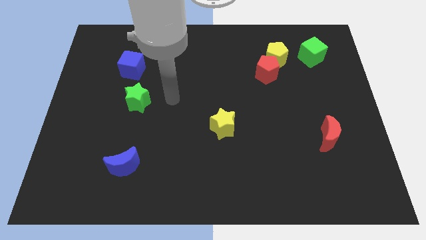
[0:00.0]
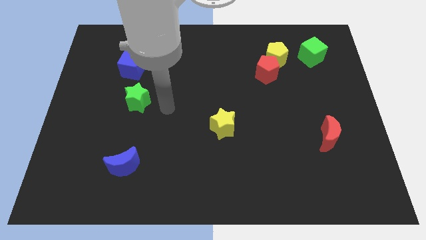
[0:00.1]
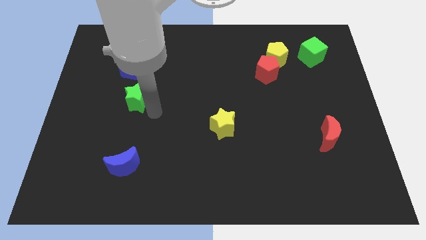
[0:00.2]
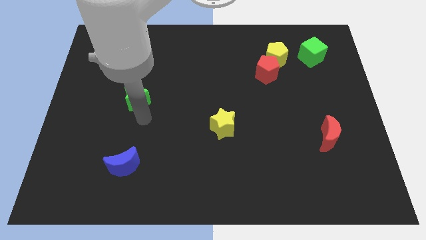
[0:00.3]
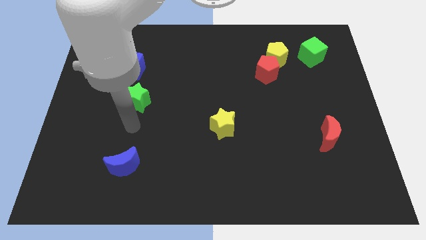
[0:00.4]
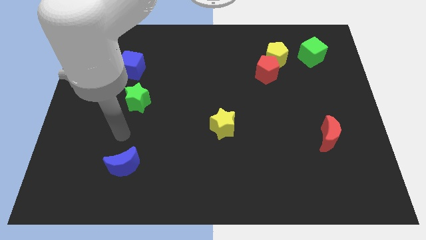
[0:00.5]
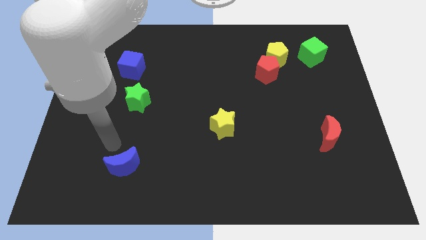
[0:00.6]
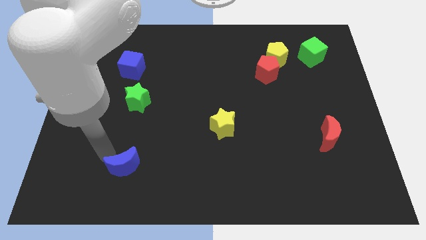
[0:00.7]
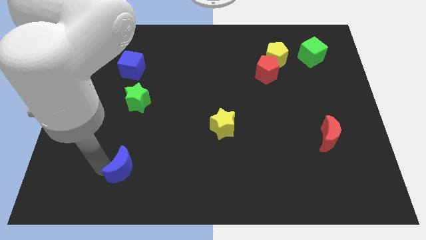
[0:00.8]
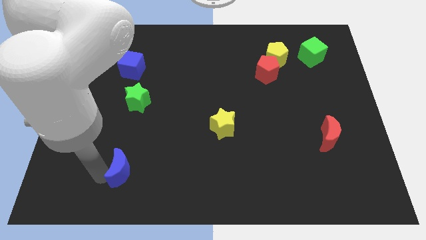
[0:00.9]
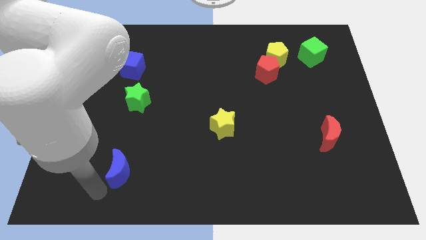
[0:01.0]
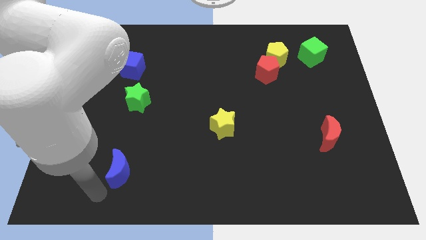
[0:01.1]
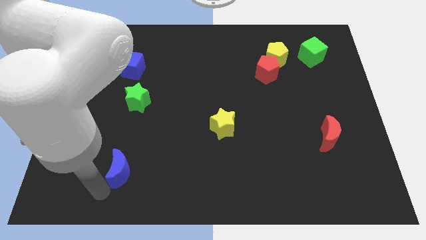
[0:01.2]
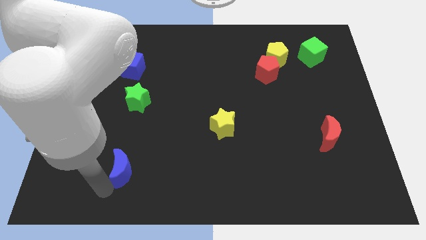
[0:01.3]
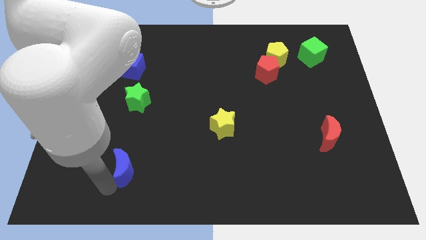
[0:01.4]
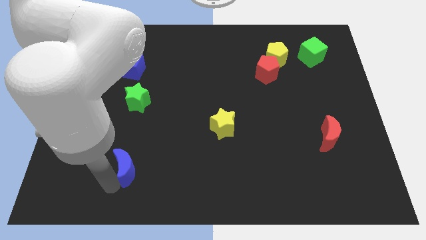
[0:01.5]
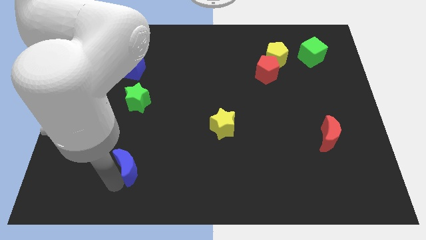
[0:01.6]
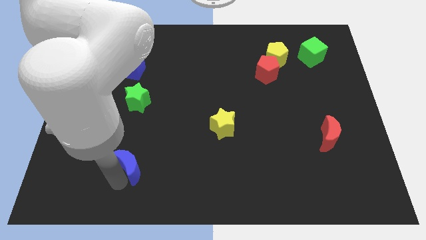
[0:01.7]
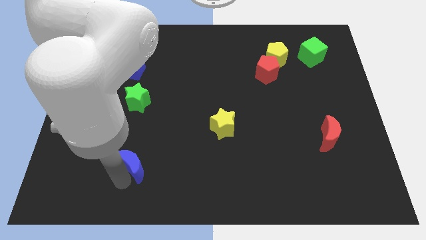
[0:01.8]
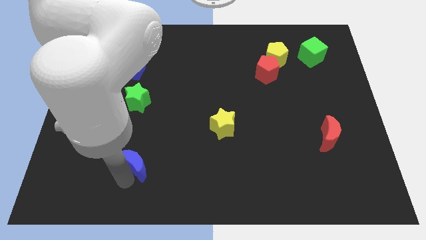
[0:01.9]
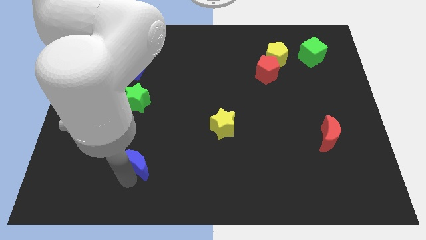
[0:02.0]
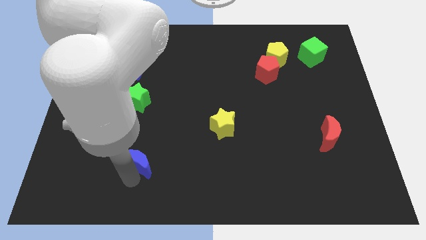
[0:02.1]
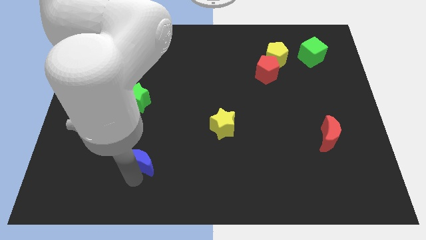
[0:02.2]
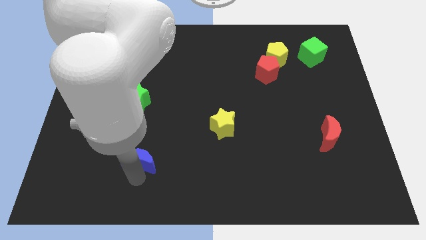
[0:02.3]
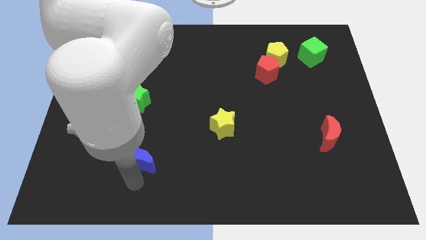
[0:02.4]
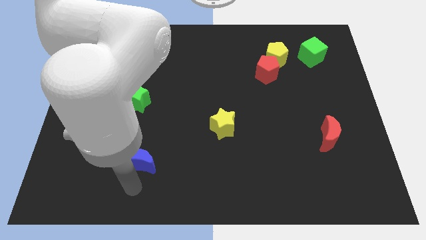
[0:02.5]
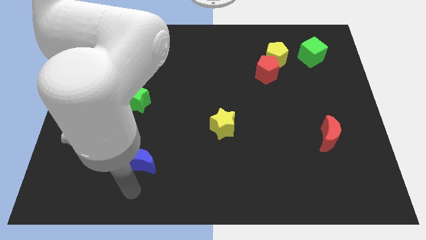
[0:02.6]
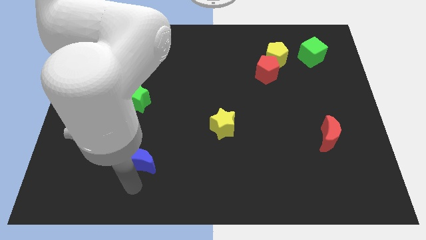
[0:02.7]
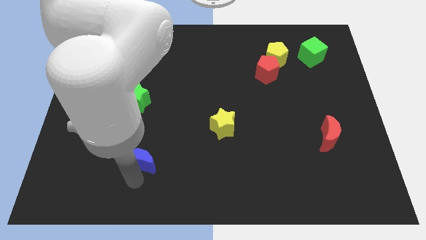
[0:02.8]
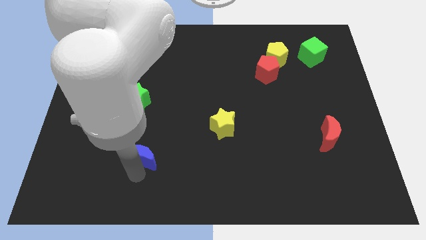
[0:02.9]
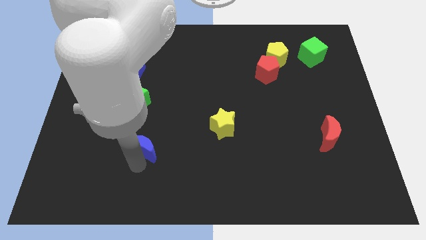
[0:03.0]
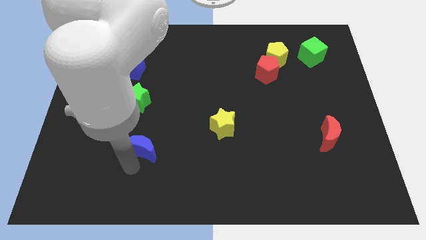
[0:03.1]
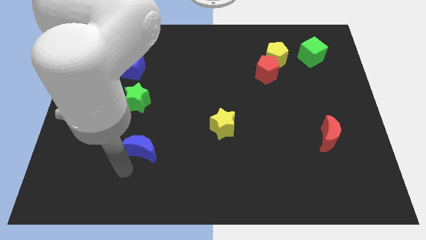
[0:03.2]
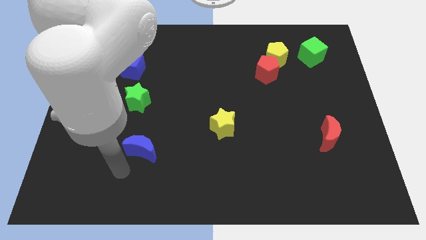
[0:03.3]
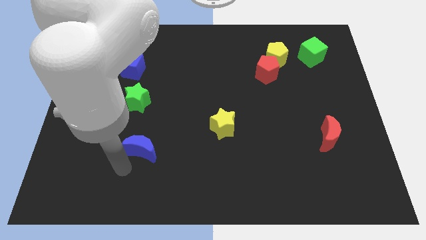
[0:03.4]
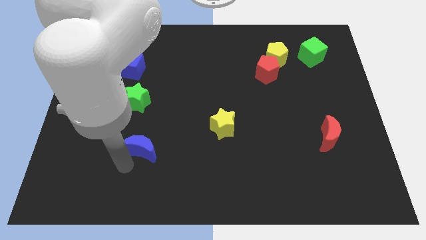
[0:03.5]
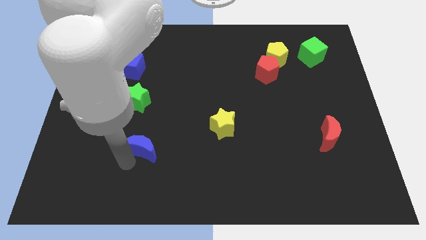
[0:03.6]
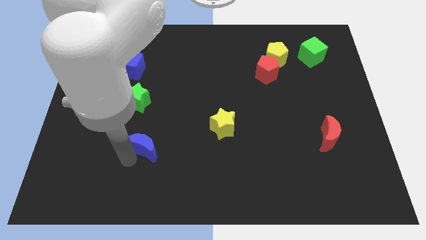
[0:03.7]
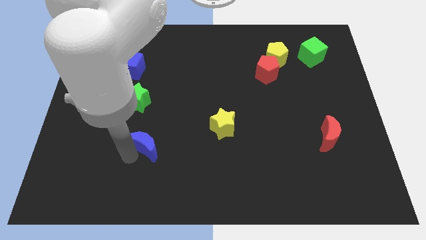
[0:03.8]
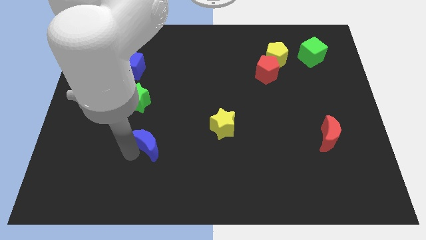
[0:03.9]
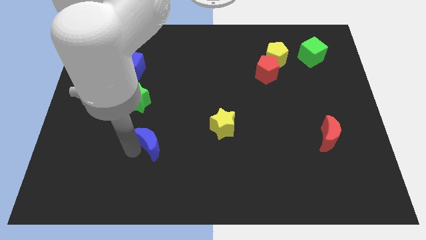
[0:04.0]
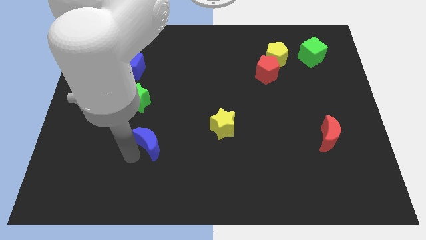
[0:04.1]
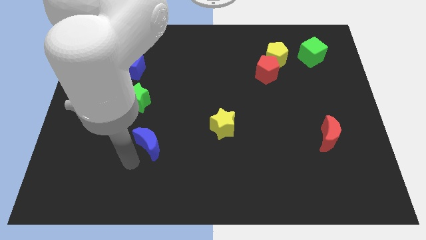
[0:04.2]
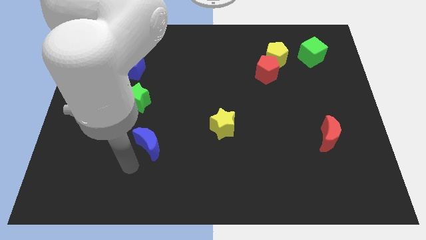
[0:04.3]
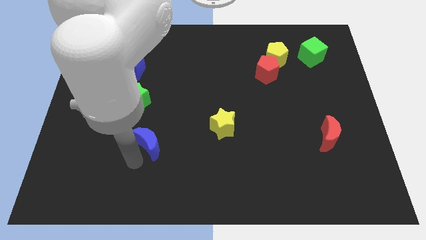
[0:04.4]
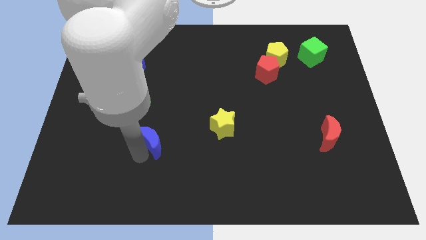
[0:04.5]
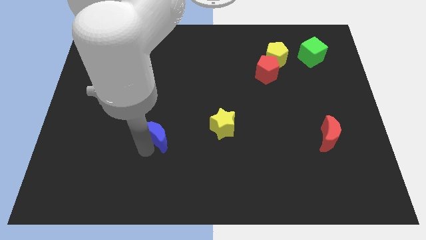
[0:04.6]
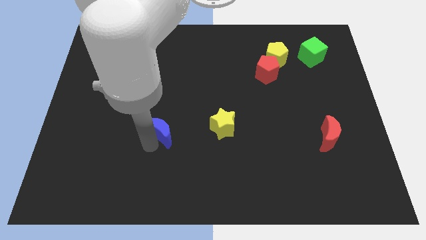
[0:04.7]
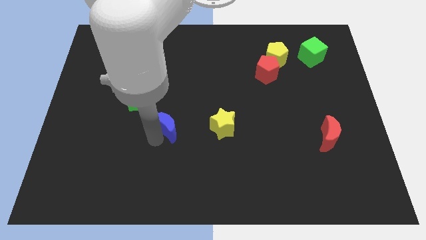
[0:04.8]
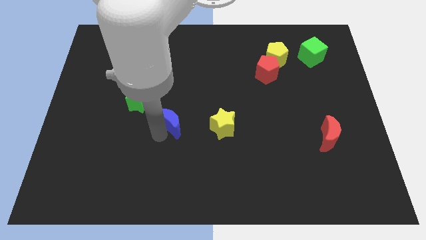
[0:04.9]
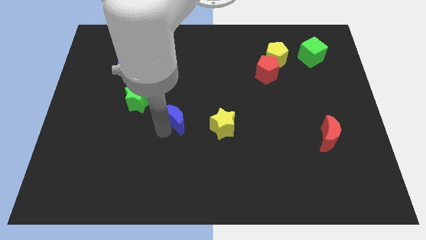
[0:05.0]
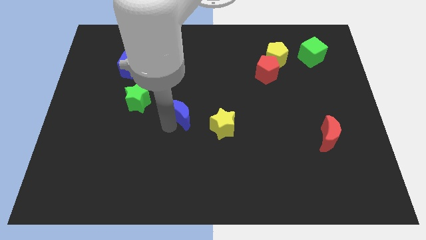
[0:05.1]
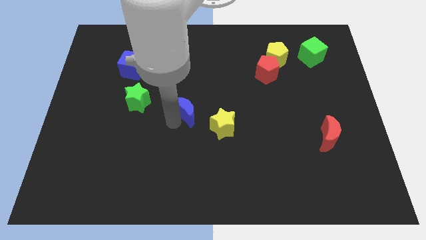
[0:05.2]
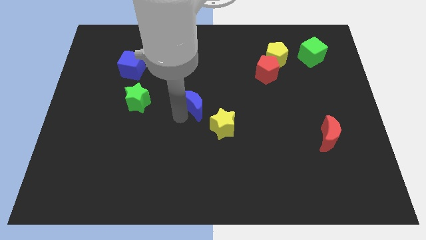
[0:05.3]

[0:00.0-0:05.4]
push the blue moon diagonally upwards and to the right

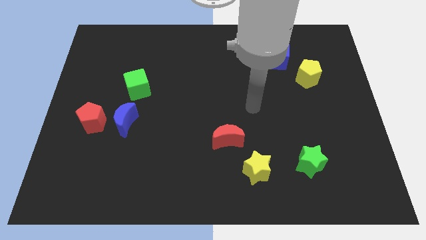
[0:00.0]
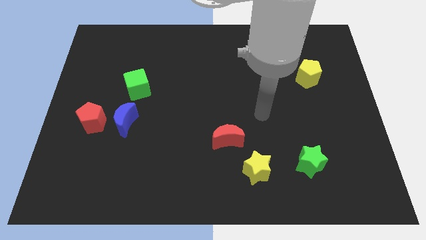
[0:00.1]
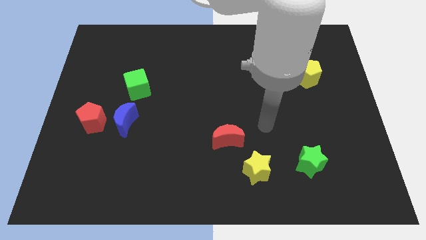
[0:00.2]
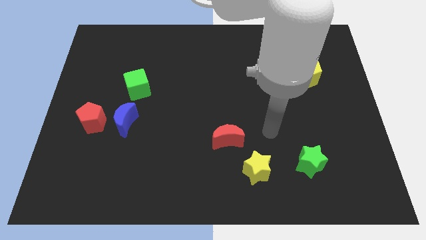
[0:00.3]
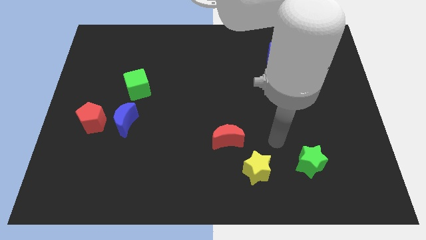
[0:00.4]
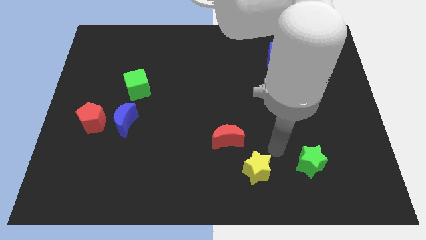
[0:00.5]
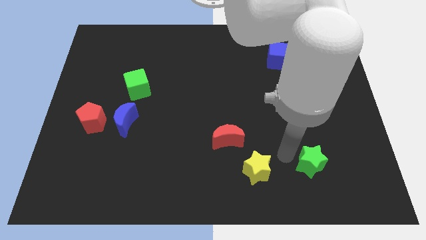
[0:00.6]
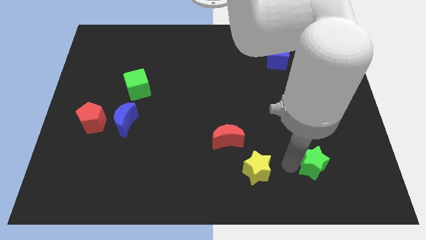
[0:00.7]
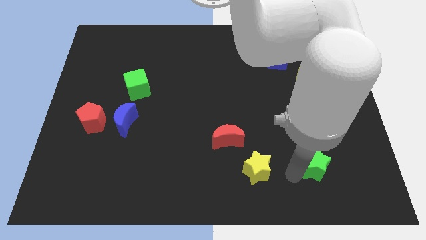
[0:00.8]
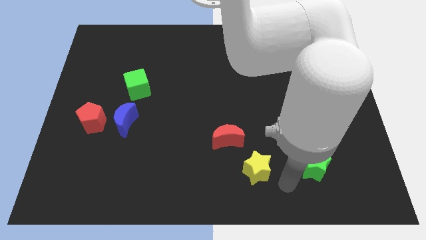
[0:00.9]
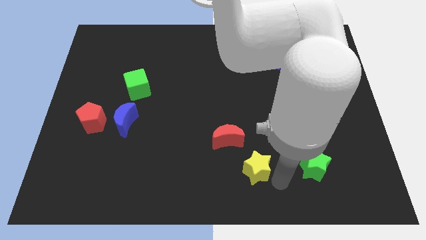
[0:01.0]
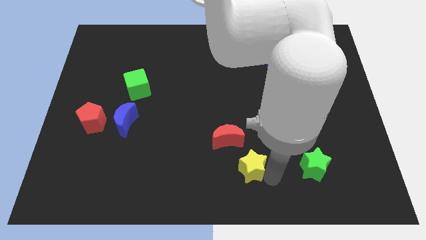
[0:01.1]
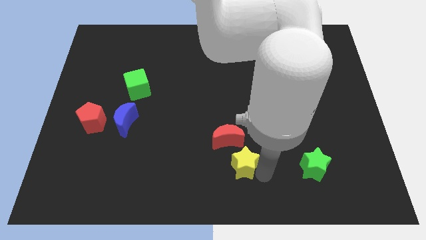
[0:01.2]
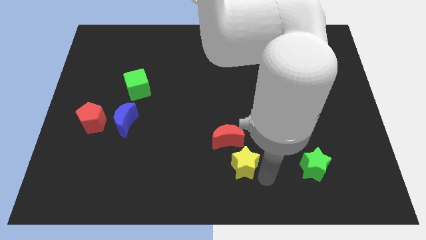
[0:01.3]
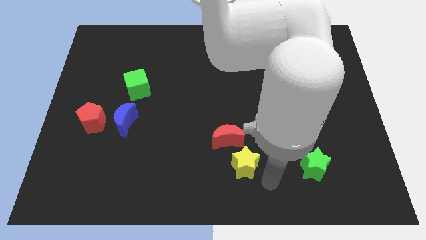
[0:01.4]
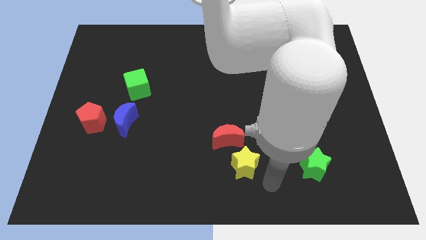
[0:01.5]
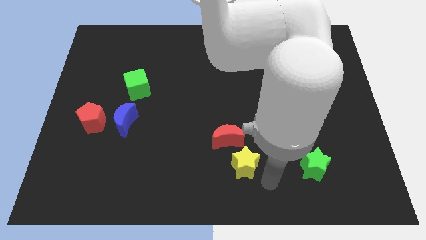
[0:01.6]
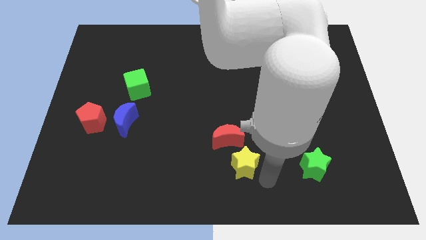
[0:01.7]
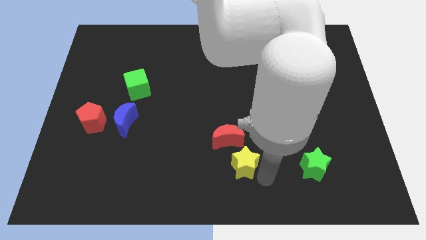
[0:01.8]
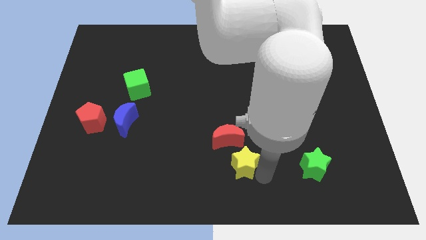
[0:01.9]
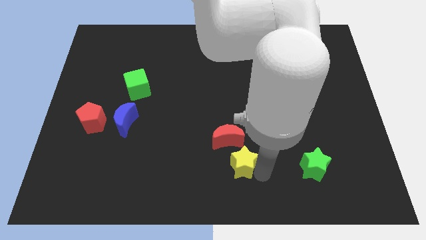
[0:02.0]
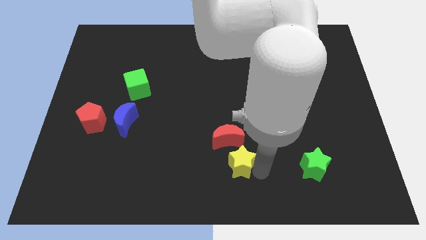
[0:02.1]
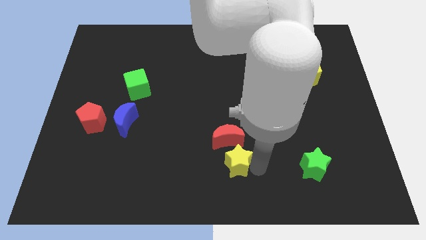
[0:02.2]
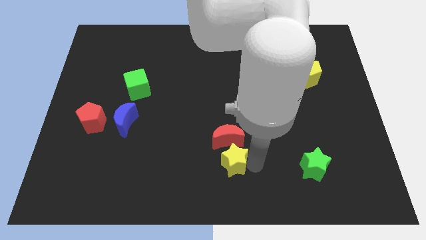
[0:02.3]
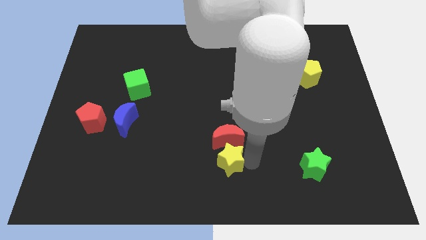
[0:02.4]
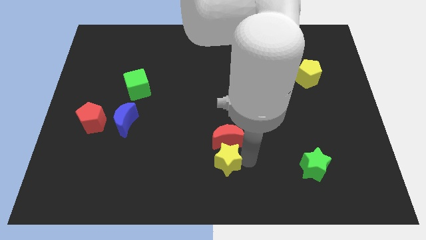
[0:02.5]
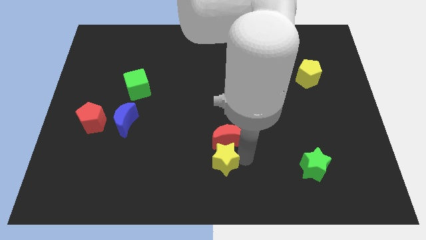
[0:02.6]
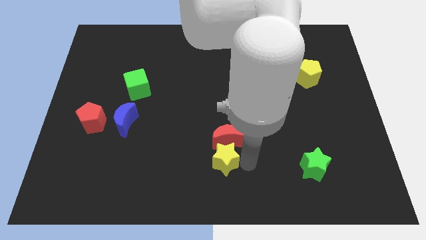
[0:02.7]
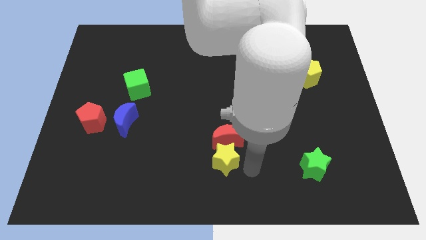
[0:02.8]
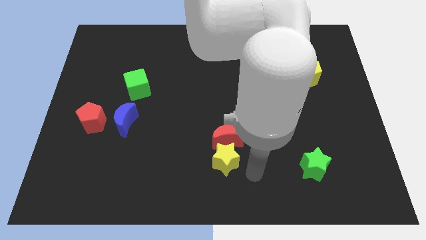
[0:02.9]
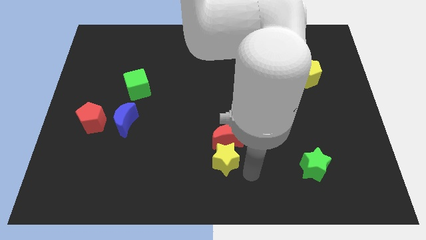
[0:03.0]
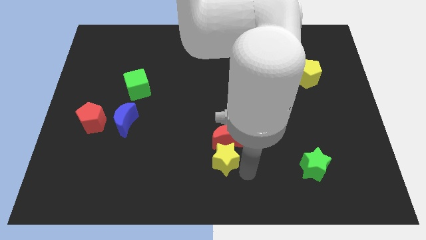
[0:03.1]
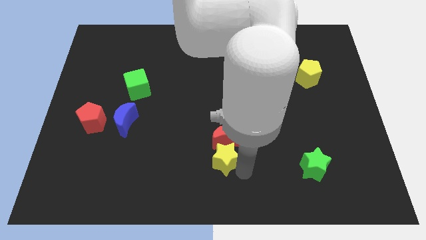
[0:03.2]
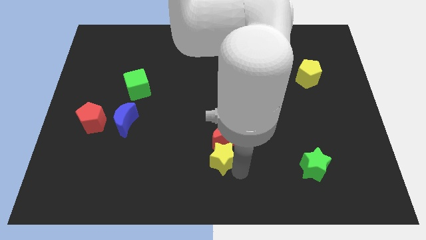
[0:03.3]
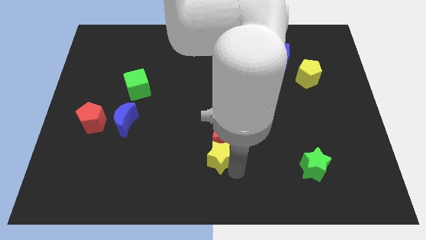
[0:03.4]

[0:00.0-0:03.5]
move the yellow star up and then left a little

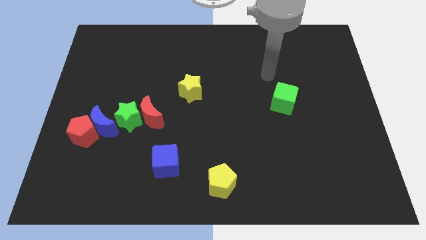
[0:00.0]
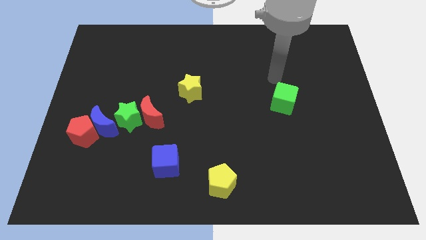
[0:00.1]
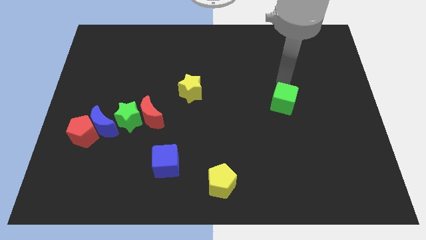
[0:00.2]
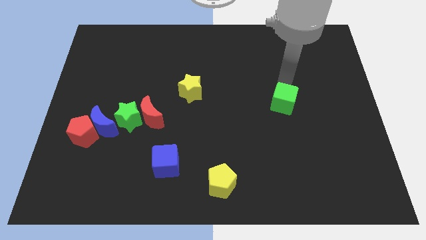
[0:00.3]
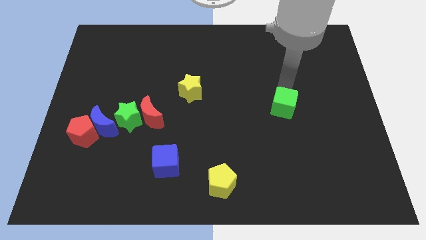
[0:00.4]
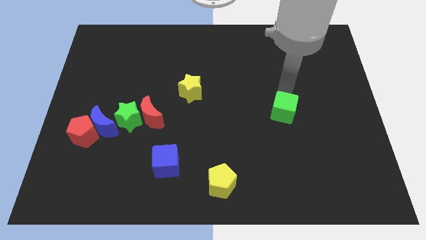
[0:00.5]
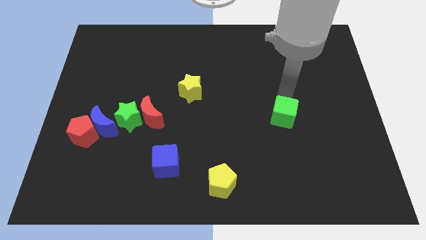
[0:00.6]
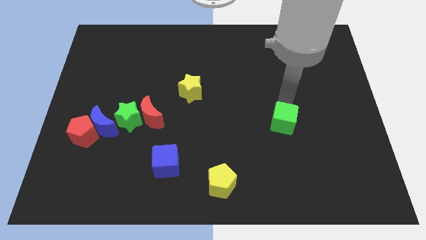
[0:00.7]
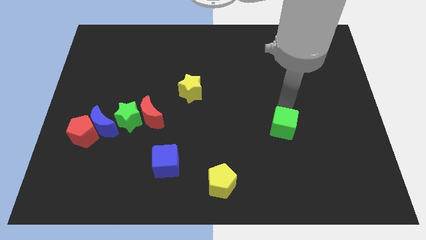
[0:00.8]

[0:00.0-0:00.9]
slightly move the green cube down
